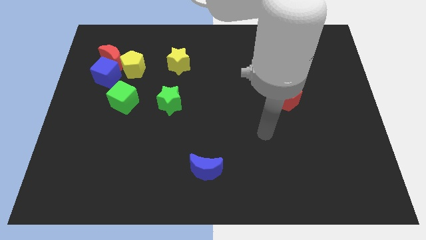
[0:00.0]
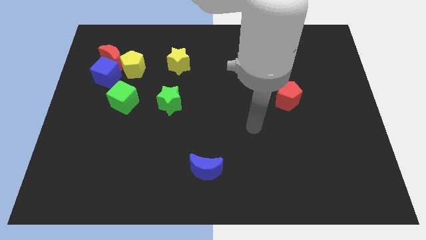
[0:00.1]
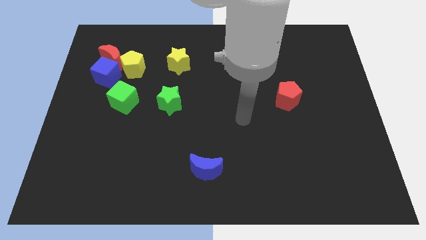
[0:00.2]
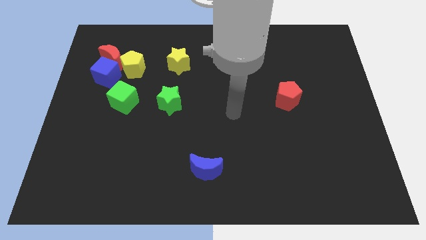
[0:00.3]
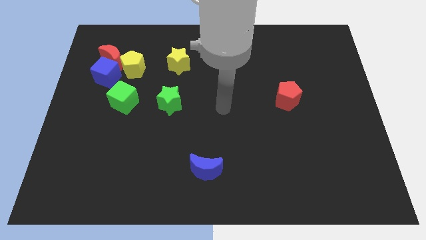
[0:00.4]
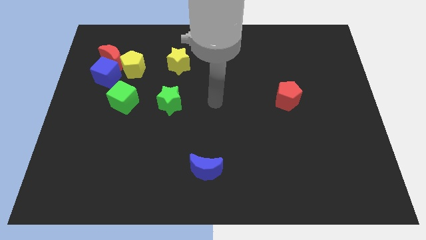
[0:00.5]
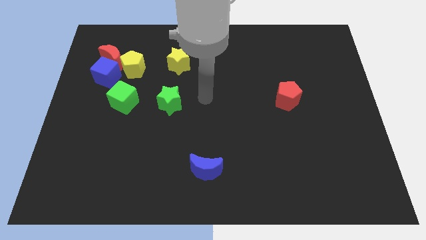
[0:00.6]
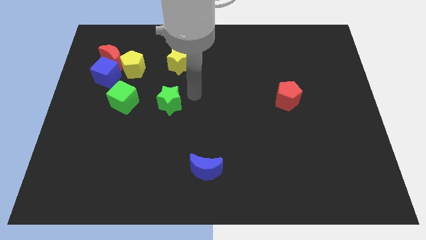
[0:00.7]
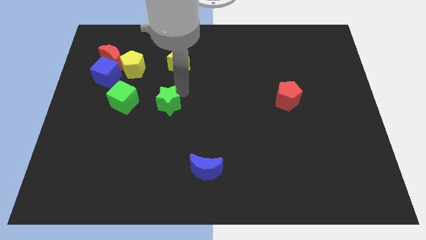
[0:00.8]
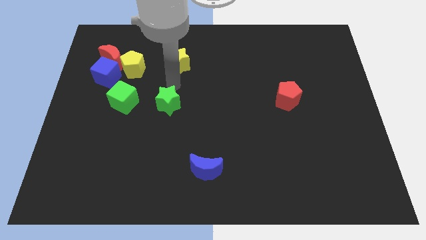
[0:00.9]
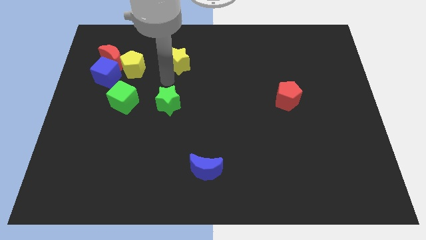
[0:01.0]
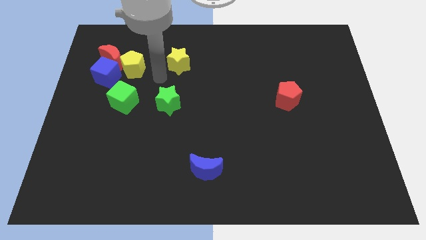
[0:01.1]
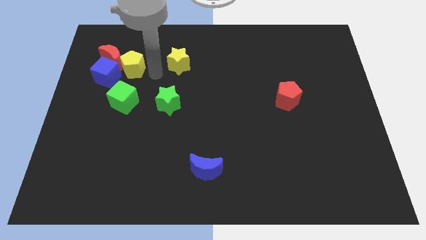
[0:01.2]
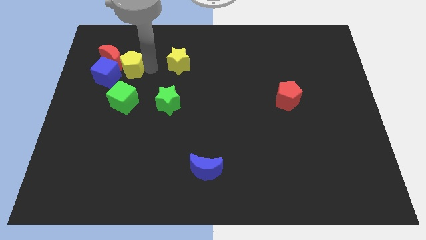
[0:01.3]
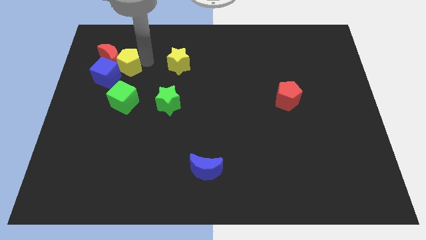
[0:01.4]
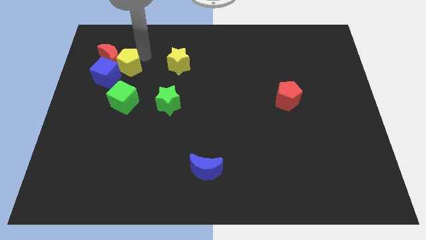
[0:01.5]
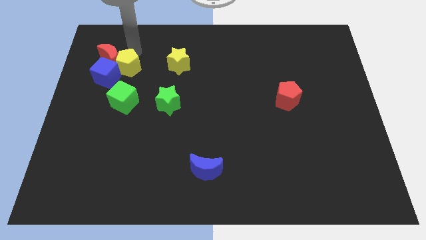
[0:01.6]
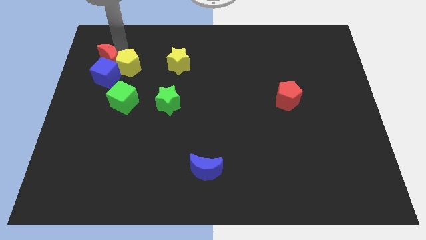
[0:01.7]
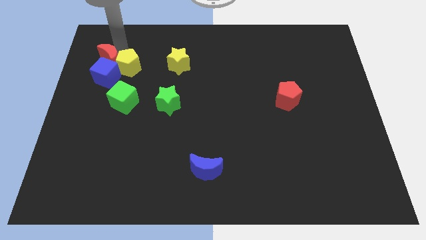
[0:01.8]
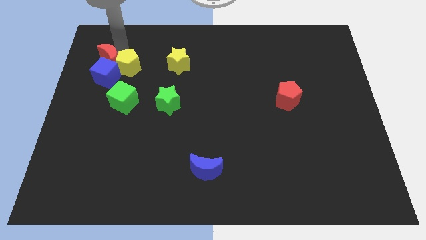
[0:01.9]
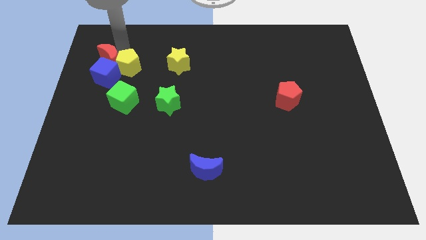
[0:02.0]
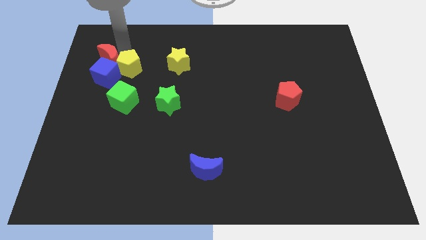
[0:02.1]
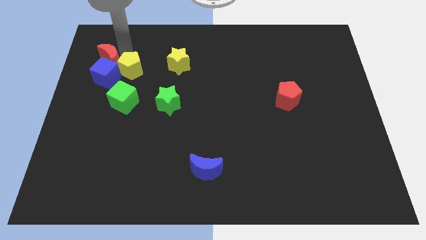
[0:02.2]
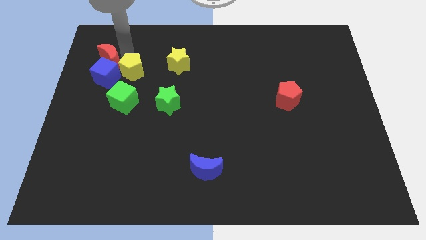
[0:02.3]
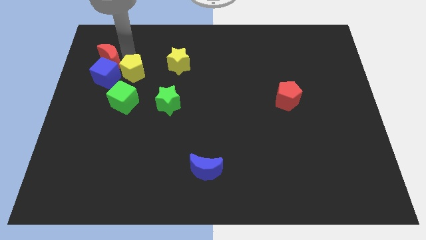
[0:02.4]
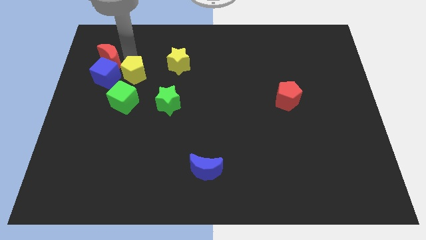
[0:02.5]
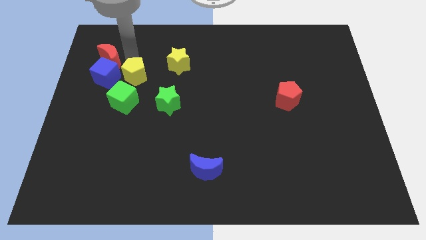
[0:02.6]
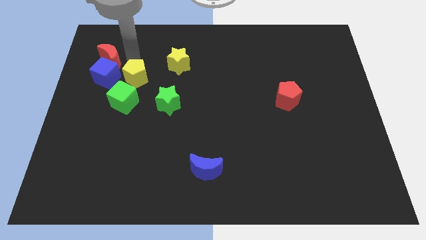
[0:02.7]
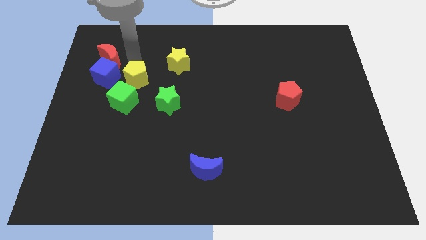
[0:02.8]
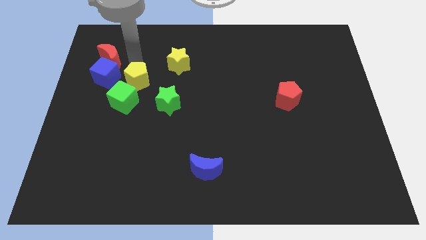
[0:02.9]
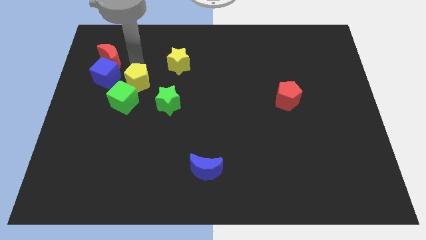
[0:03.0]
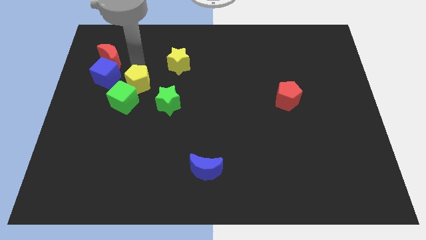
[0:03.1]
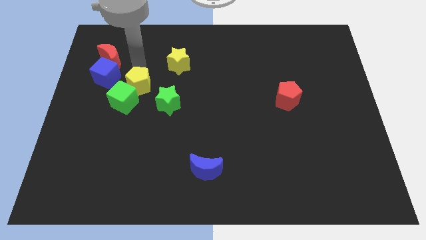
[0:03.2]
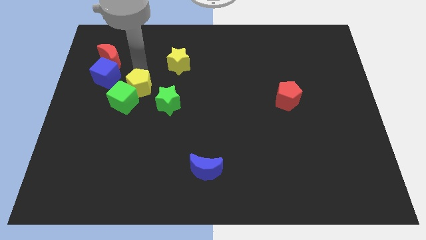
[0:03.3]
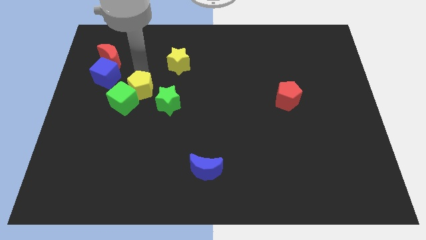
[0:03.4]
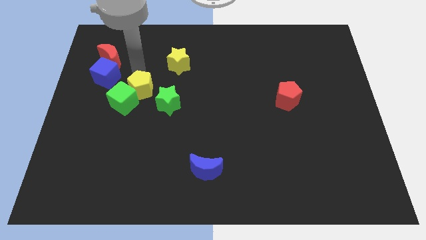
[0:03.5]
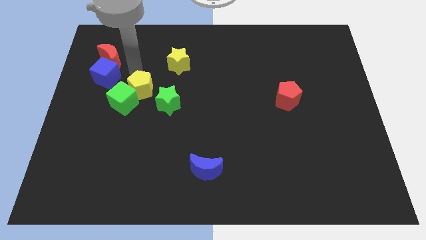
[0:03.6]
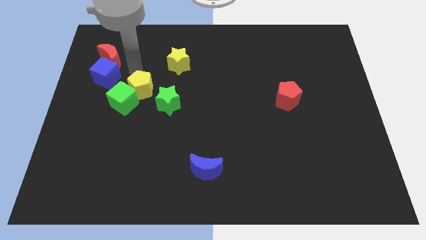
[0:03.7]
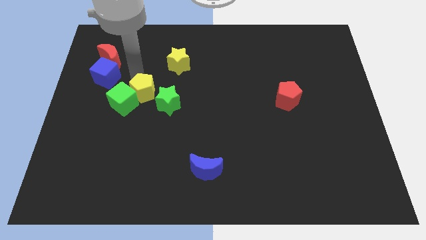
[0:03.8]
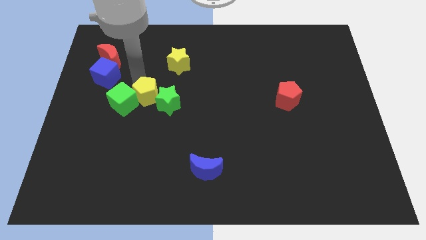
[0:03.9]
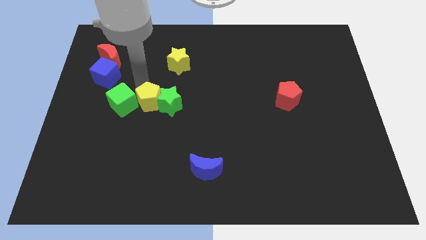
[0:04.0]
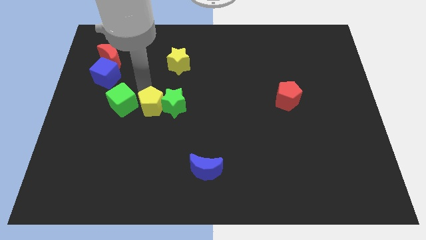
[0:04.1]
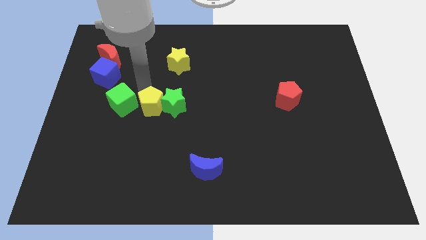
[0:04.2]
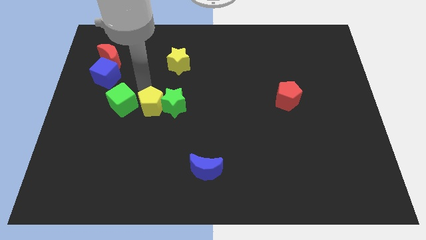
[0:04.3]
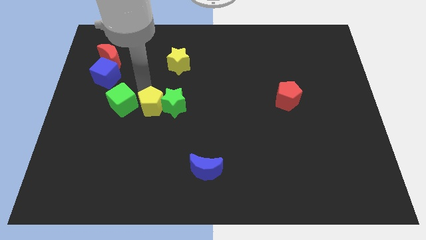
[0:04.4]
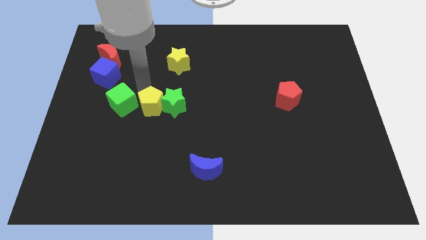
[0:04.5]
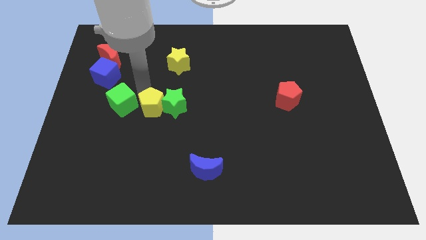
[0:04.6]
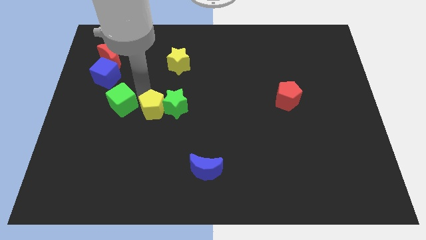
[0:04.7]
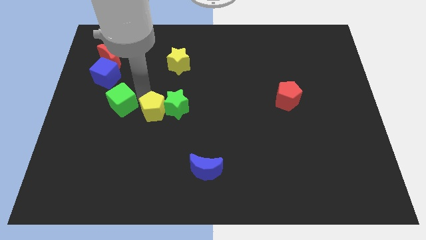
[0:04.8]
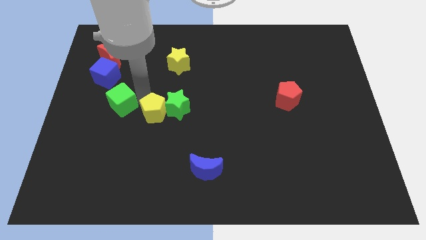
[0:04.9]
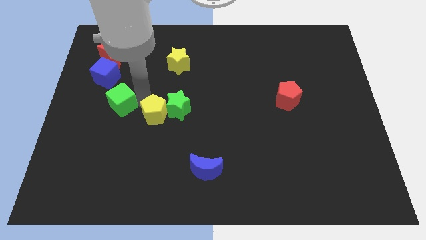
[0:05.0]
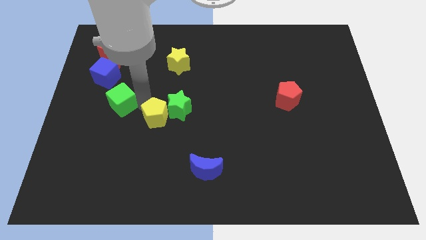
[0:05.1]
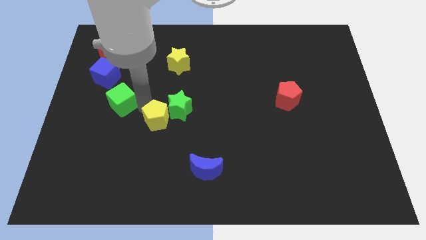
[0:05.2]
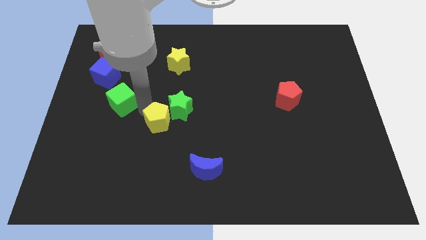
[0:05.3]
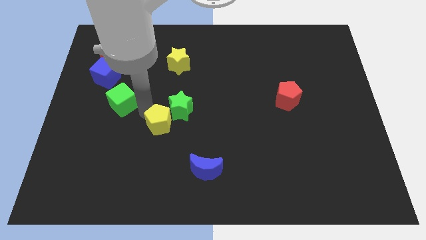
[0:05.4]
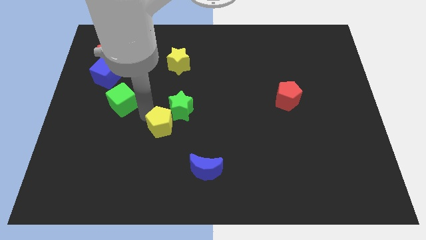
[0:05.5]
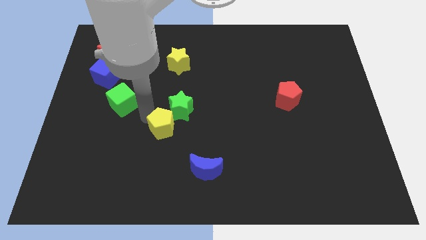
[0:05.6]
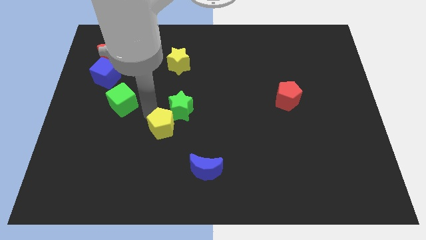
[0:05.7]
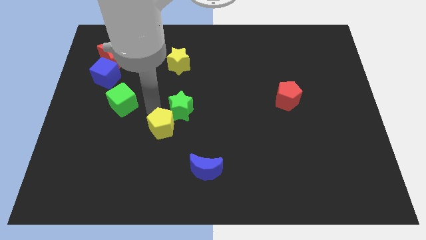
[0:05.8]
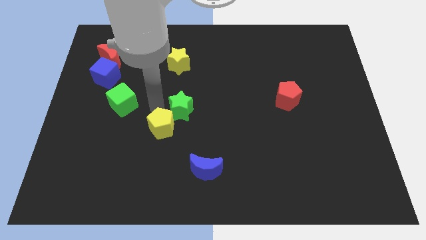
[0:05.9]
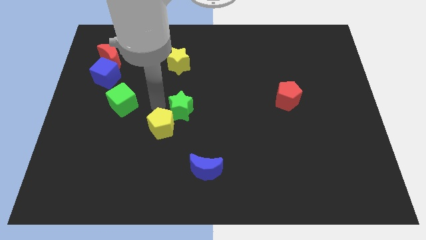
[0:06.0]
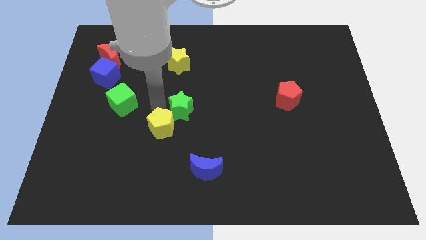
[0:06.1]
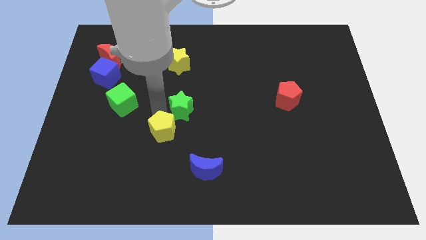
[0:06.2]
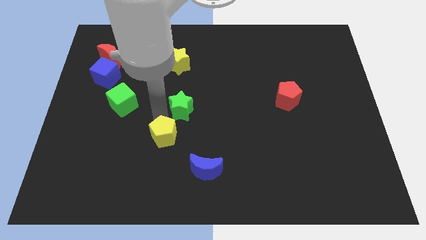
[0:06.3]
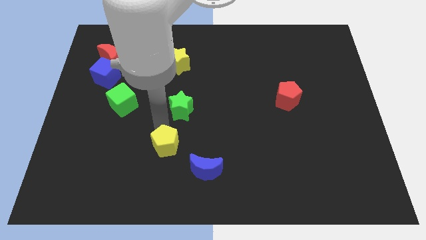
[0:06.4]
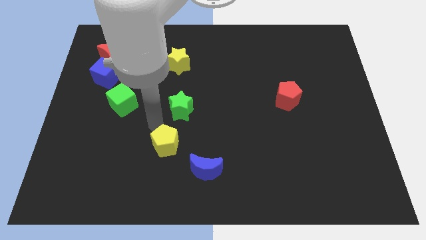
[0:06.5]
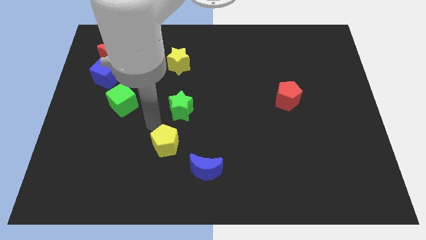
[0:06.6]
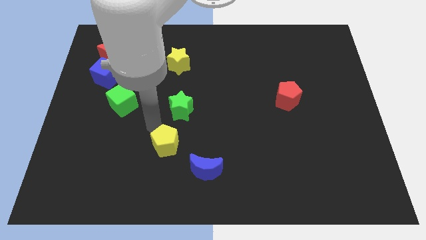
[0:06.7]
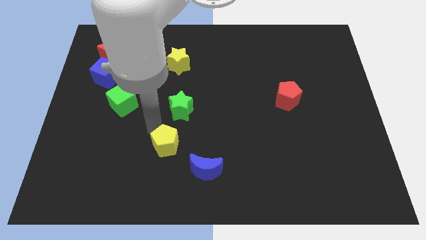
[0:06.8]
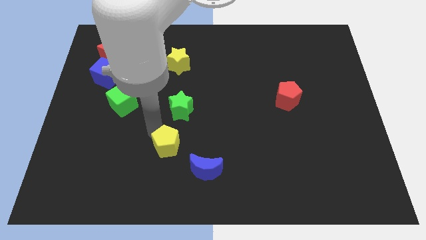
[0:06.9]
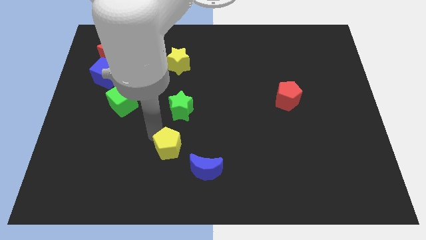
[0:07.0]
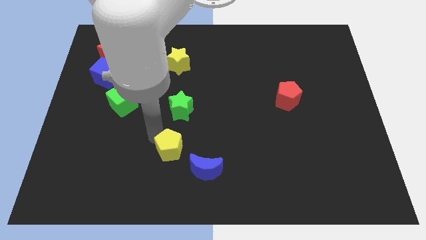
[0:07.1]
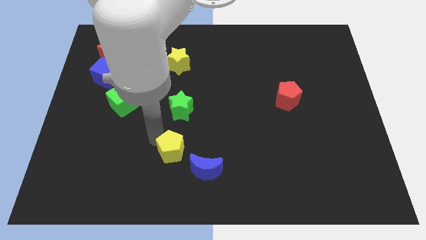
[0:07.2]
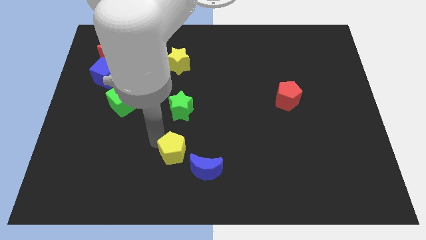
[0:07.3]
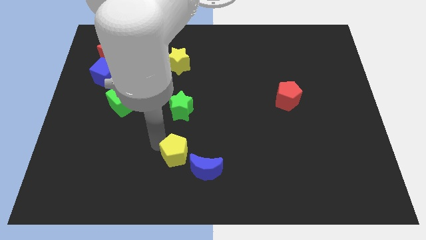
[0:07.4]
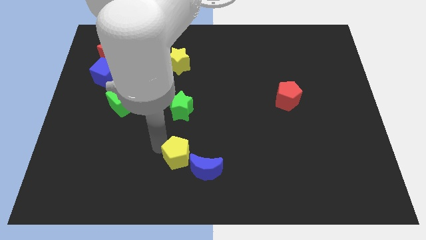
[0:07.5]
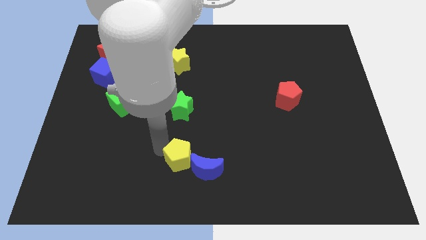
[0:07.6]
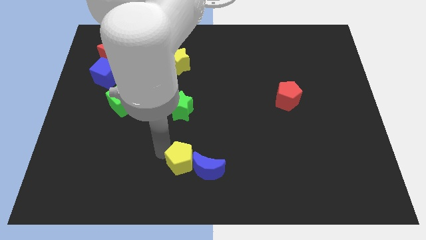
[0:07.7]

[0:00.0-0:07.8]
put the yellow pentagon to the bottom side
